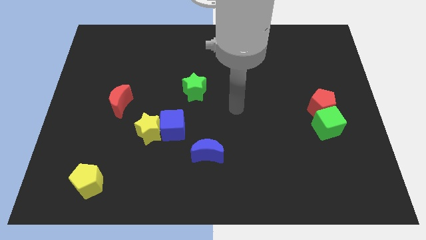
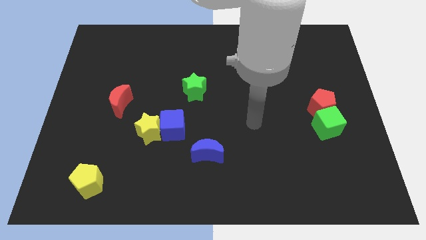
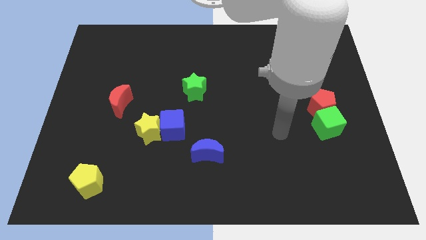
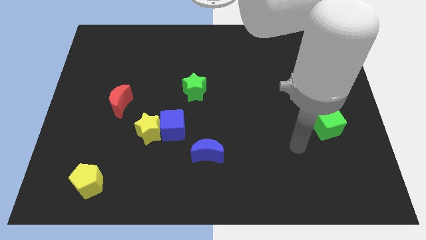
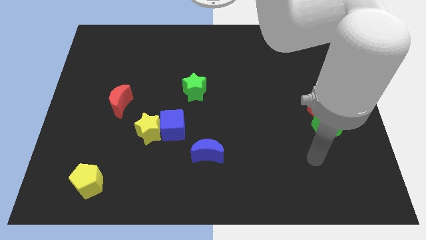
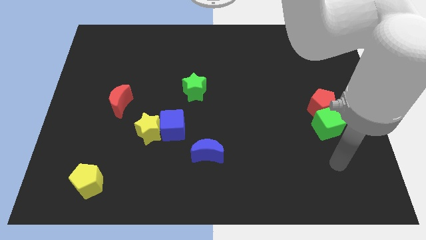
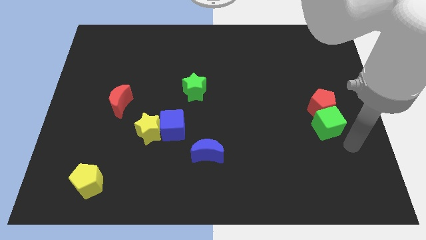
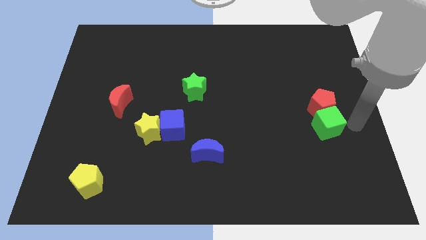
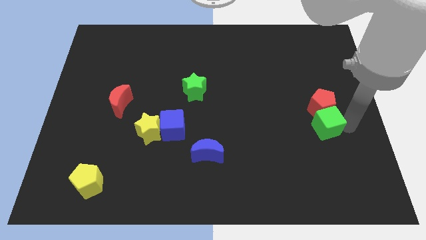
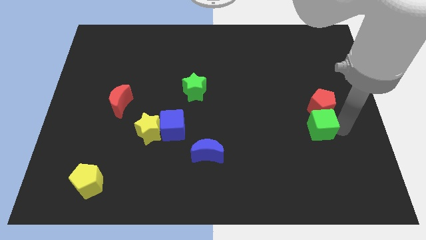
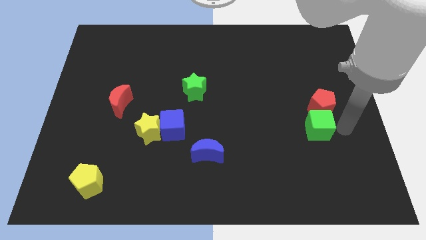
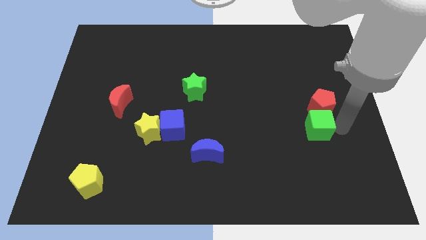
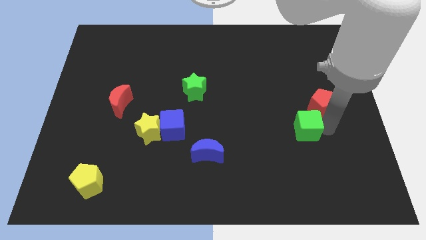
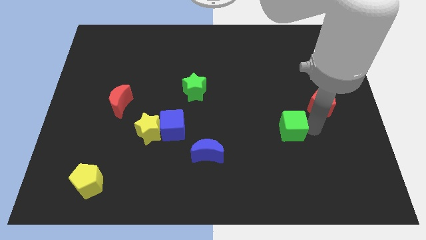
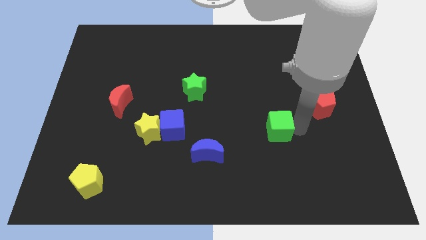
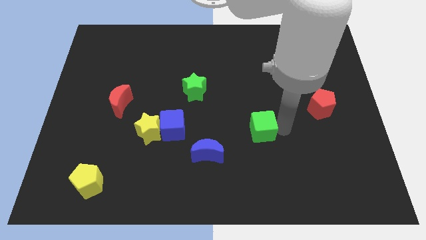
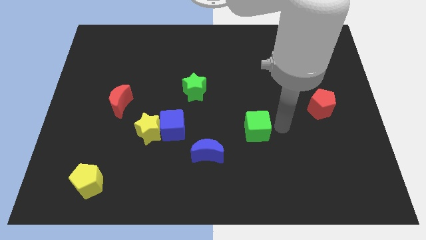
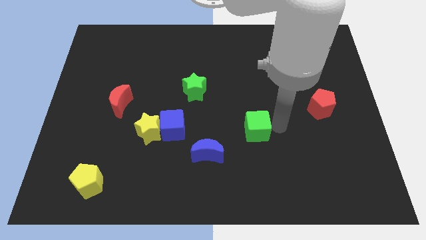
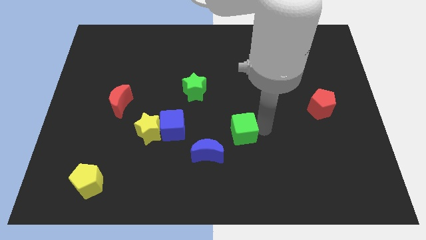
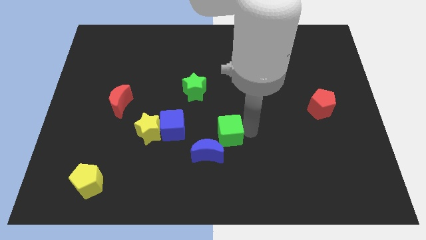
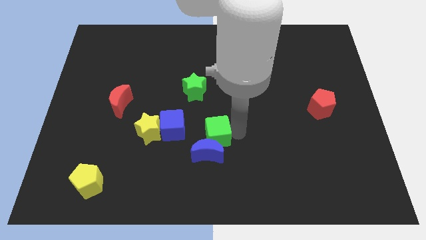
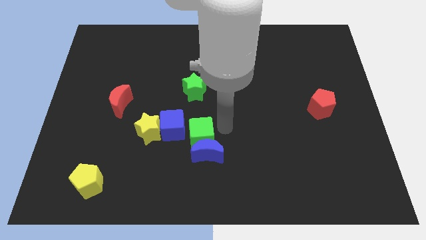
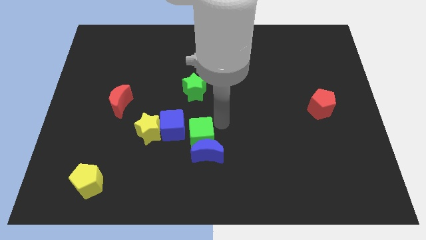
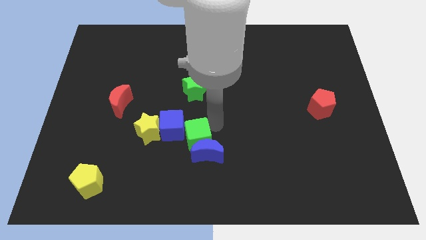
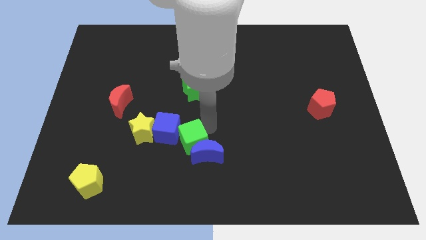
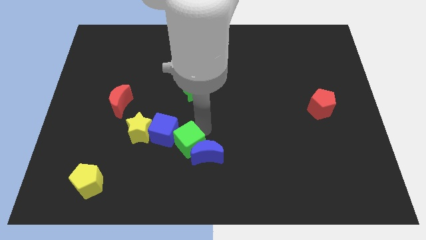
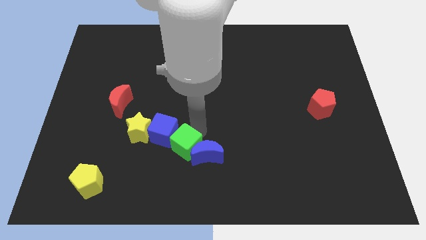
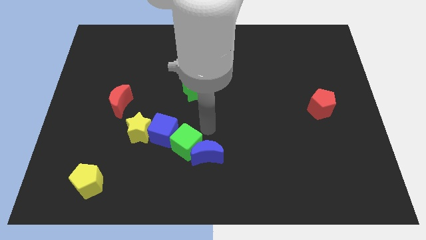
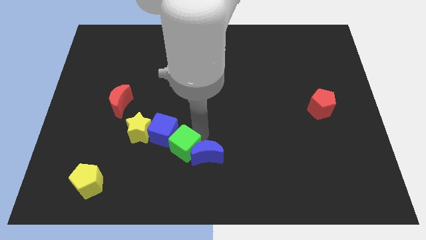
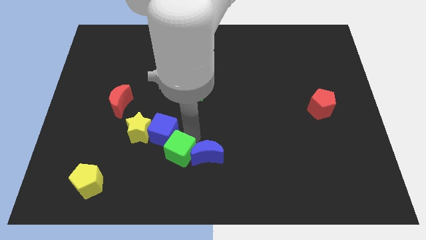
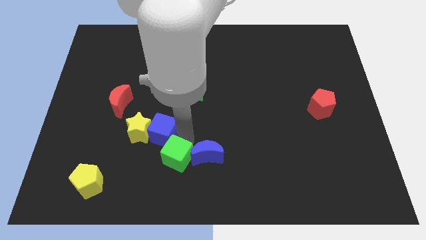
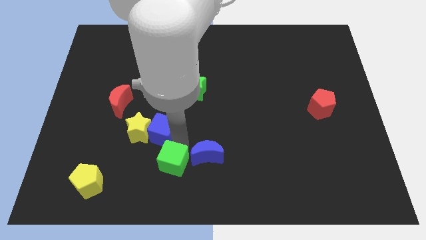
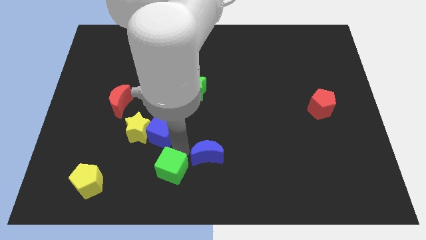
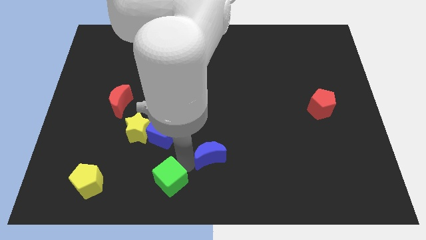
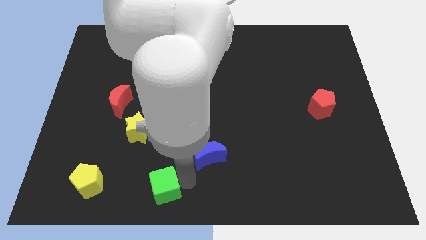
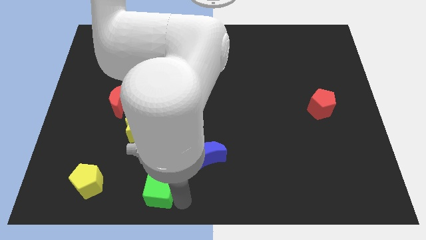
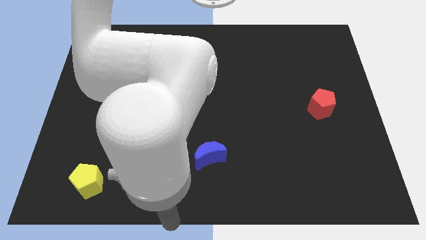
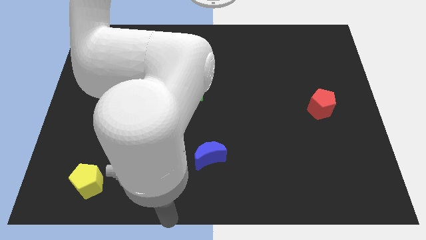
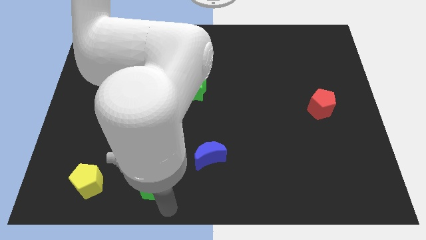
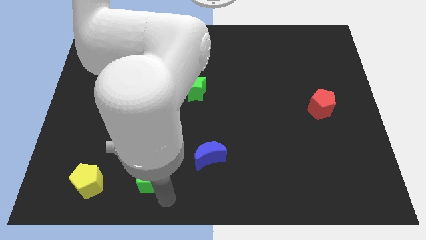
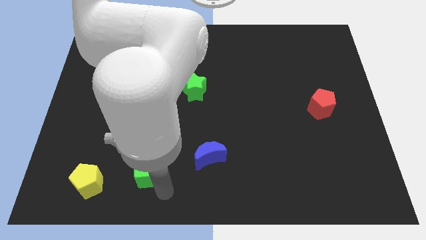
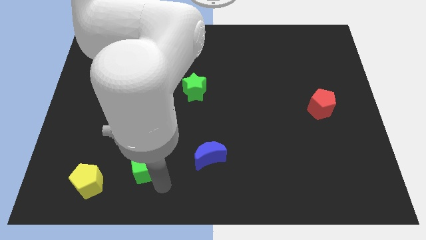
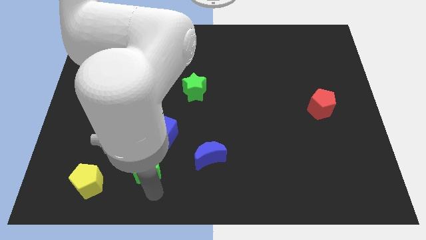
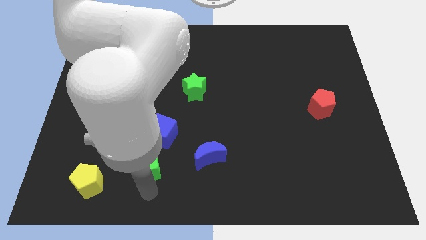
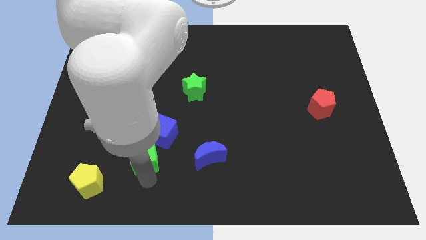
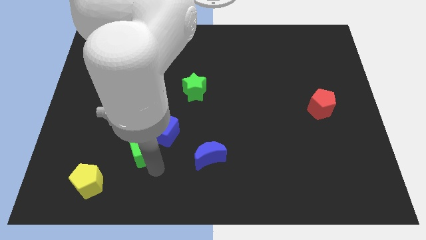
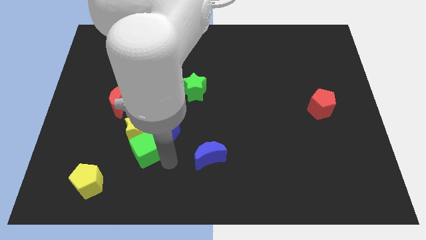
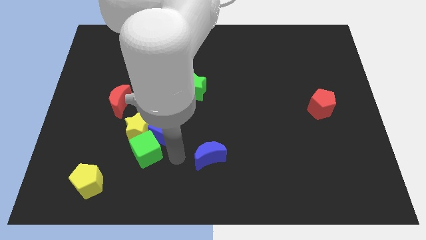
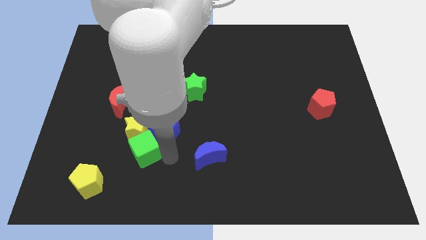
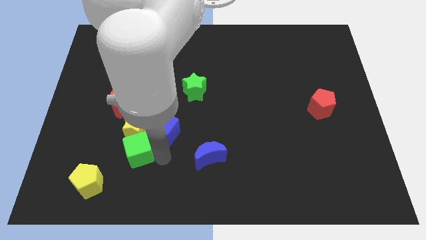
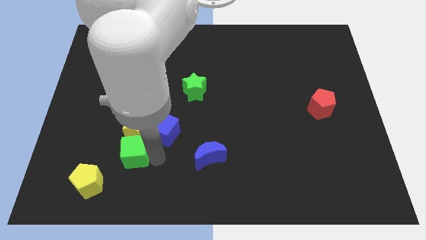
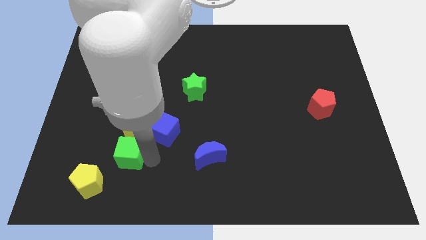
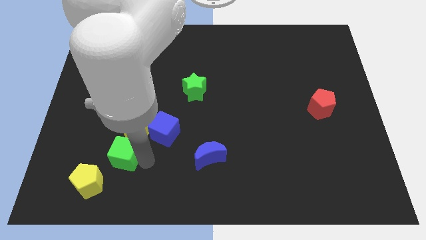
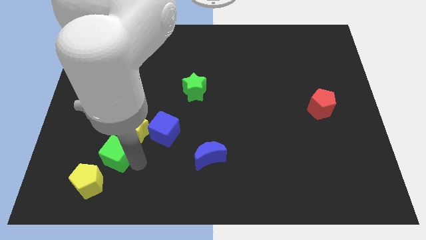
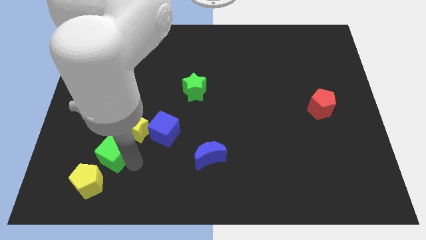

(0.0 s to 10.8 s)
move the green cube to the top of the yellow pentagon

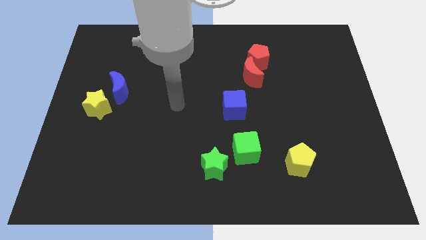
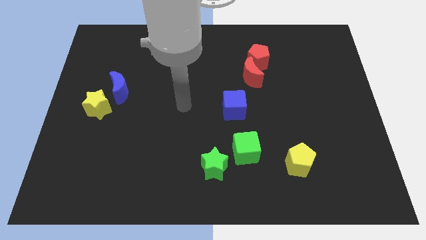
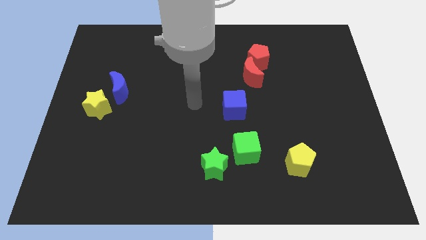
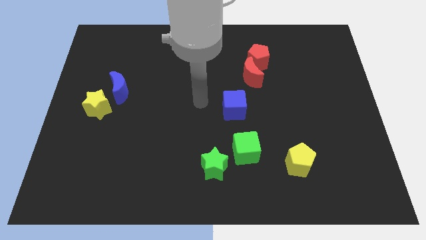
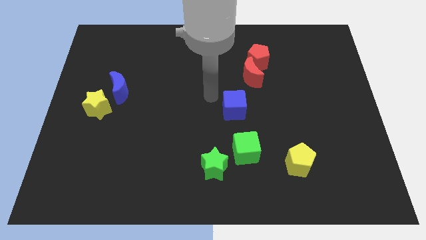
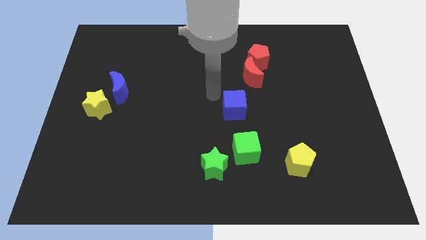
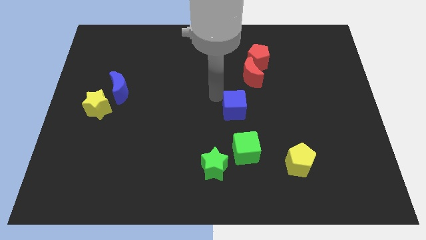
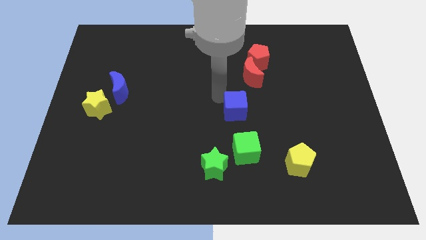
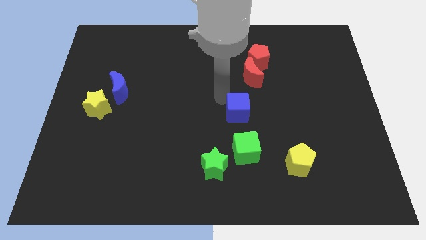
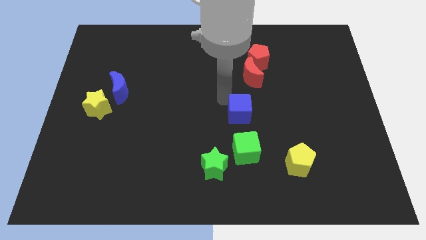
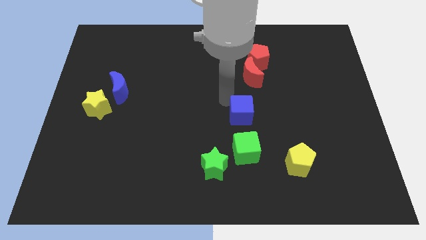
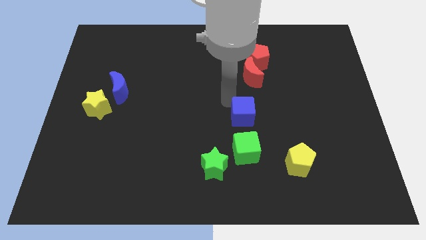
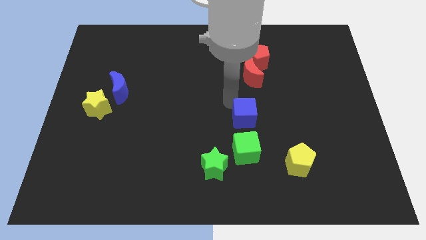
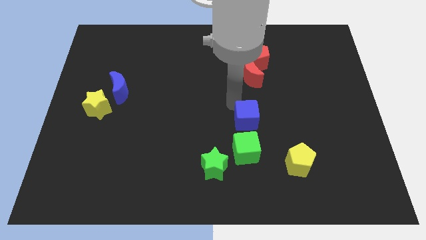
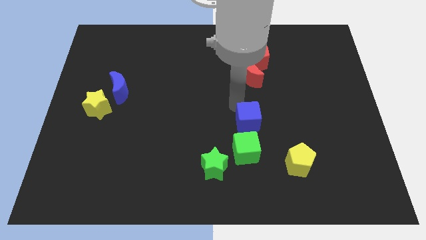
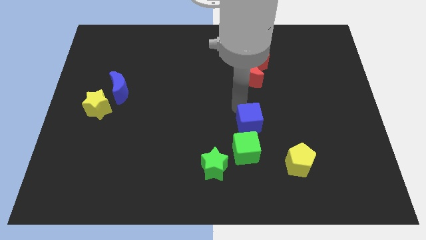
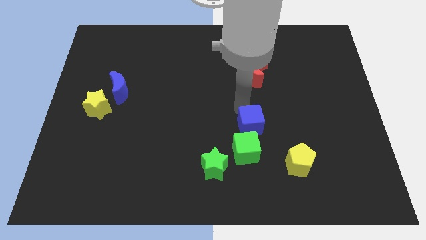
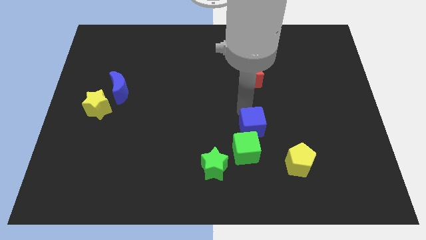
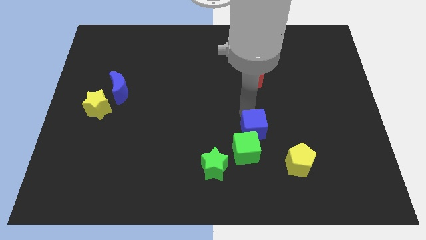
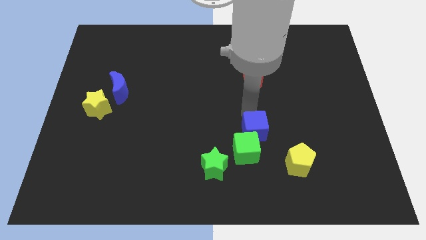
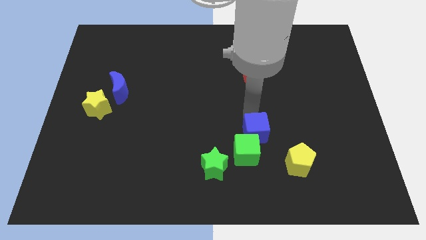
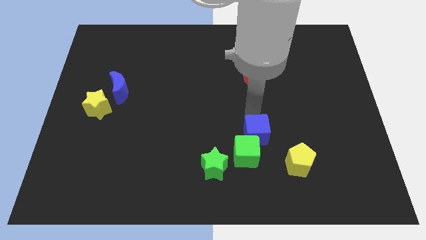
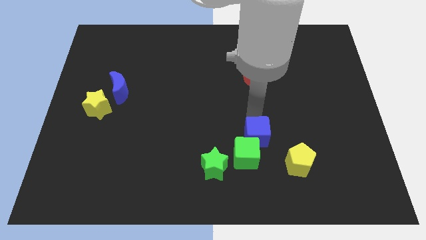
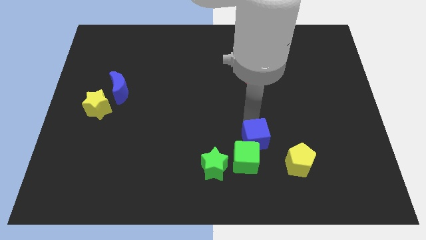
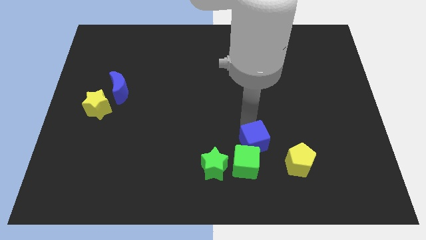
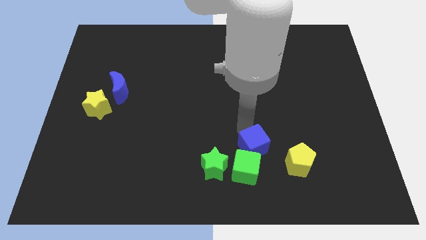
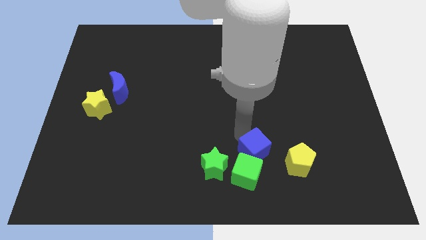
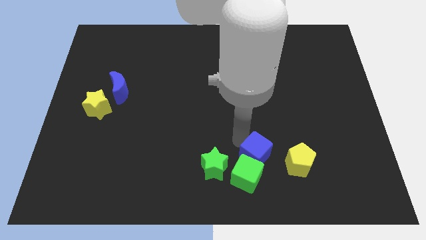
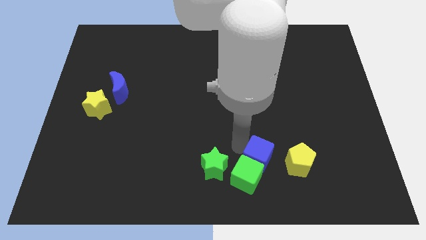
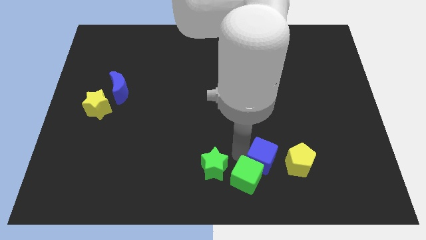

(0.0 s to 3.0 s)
put the blue cube right of the green cube
